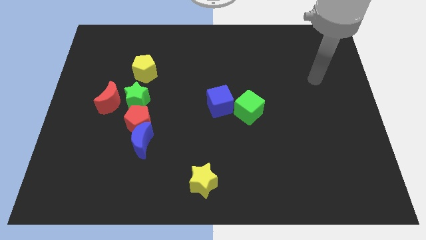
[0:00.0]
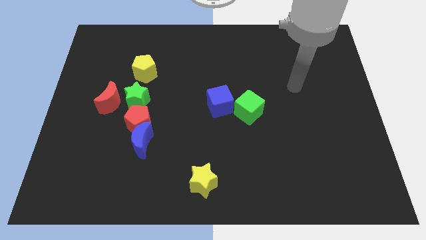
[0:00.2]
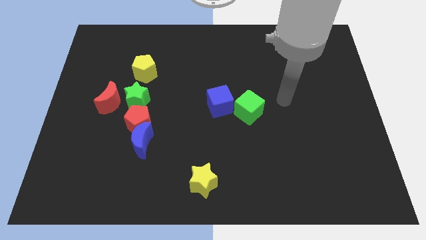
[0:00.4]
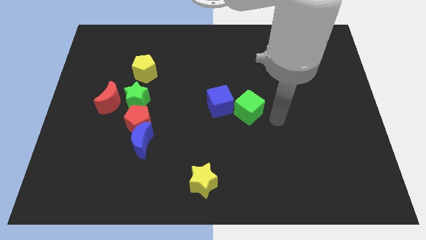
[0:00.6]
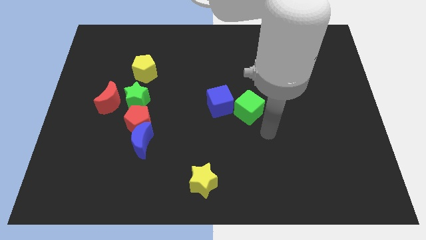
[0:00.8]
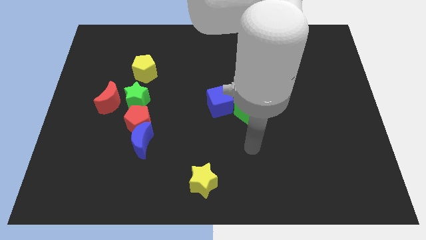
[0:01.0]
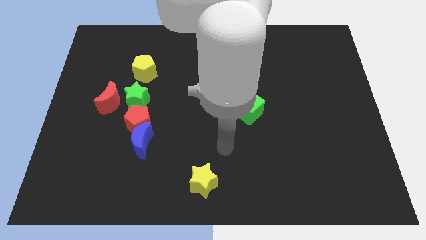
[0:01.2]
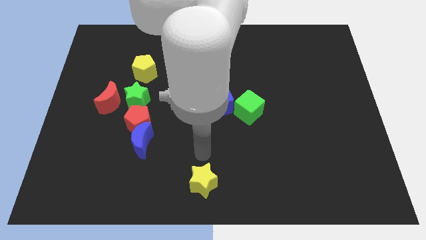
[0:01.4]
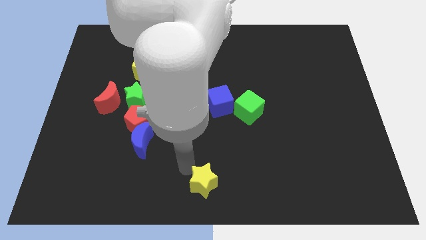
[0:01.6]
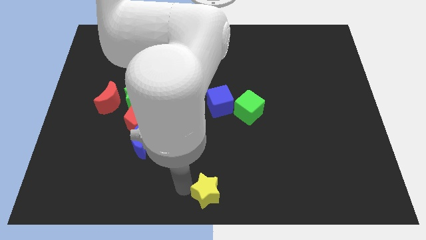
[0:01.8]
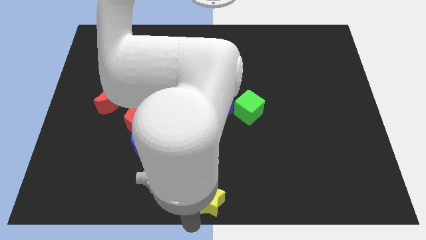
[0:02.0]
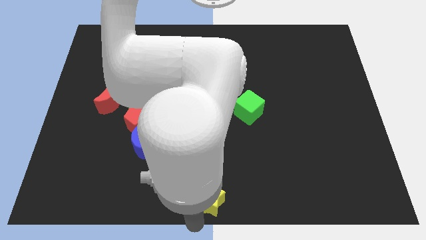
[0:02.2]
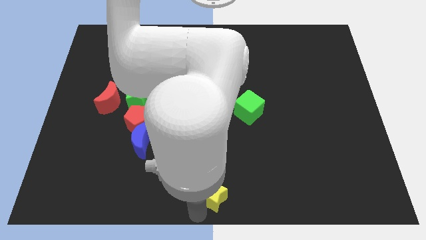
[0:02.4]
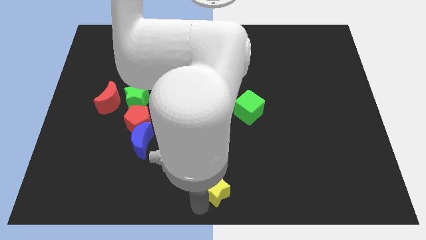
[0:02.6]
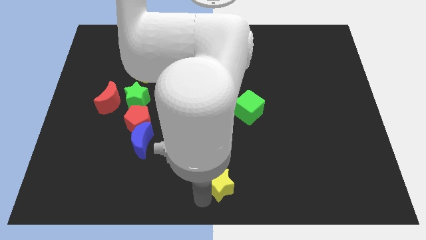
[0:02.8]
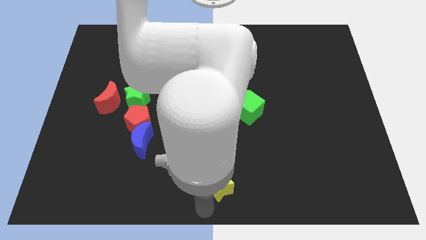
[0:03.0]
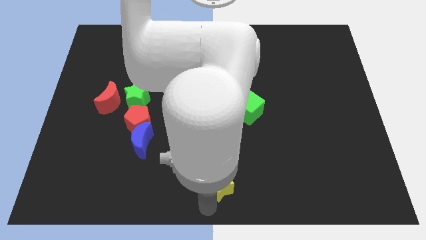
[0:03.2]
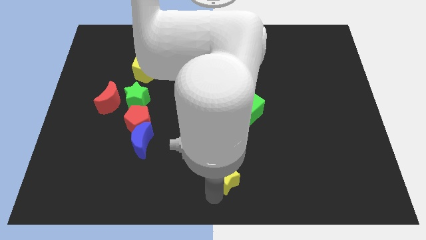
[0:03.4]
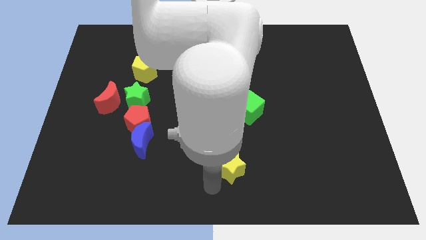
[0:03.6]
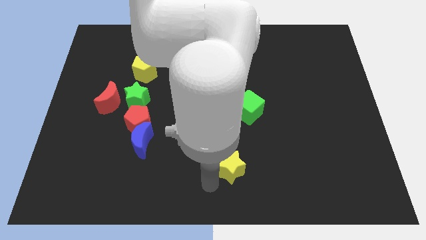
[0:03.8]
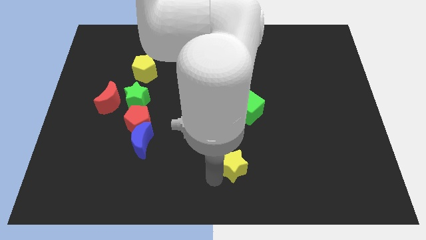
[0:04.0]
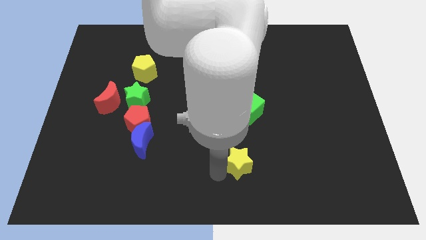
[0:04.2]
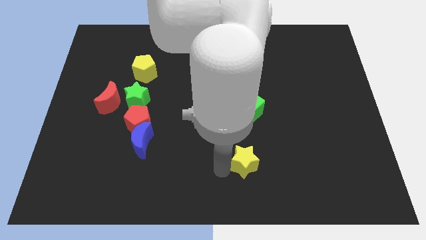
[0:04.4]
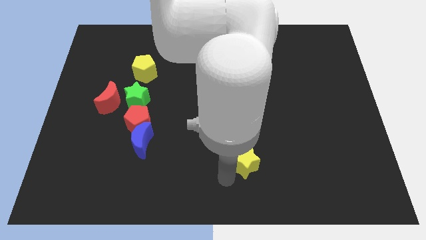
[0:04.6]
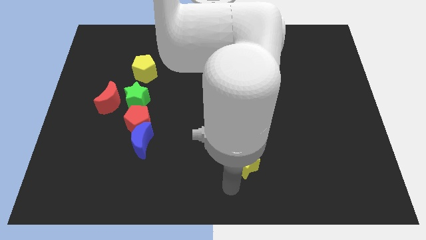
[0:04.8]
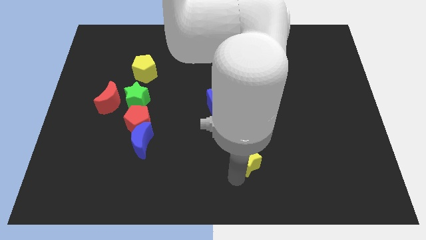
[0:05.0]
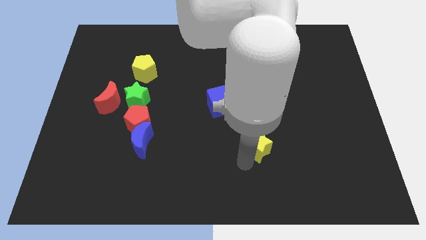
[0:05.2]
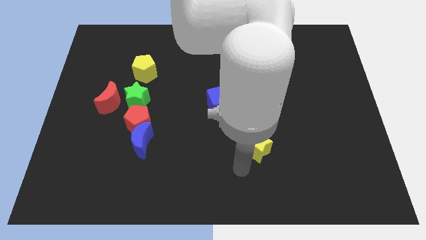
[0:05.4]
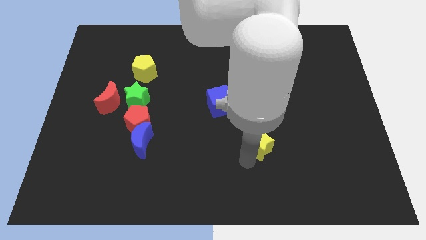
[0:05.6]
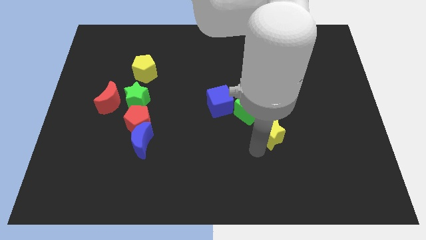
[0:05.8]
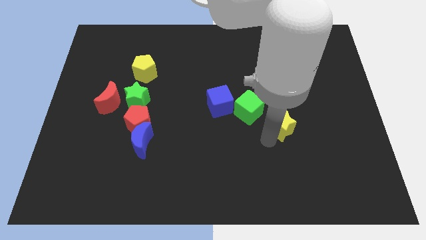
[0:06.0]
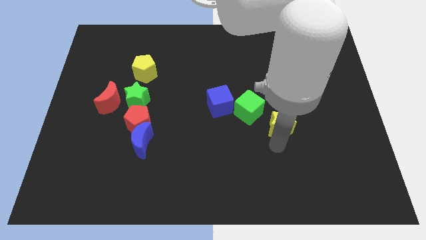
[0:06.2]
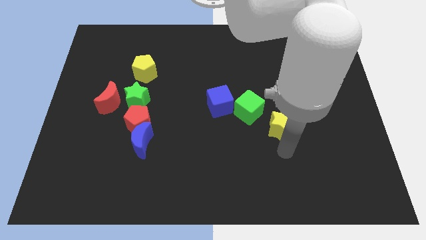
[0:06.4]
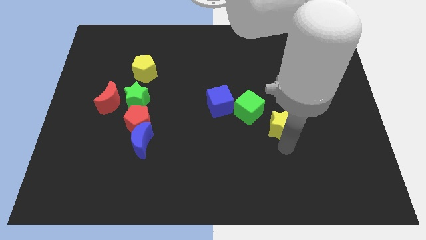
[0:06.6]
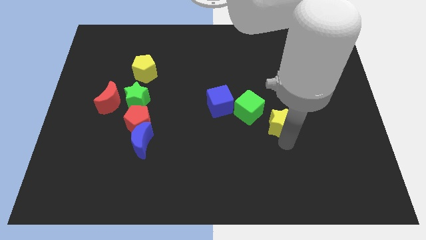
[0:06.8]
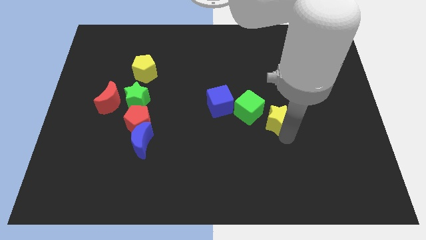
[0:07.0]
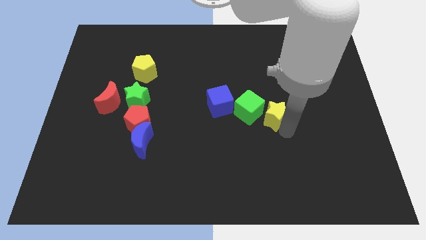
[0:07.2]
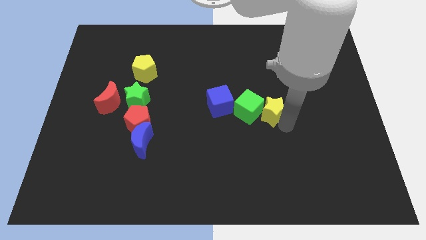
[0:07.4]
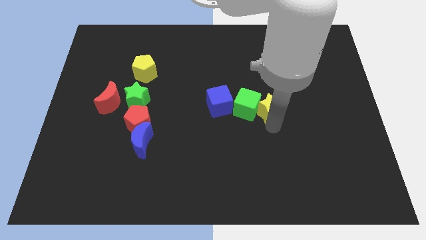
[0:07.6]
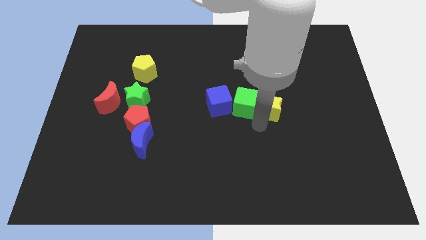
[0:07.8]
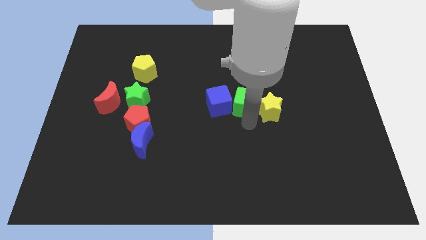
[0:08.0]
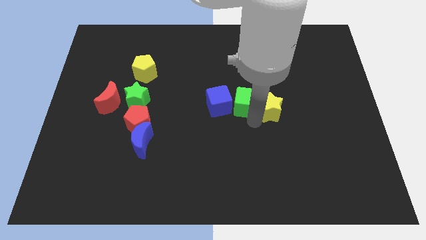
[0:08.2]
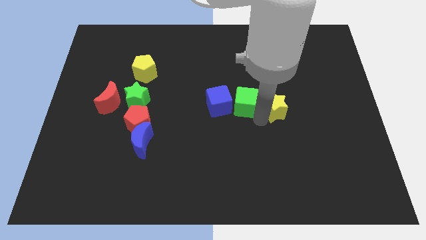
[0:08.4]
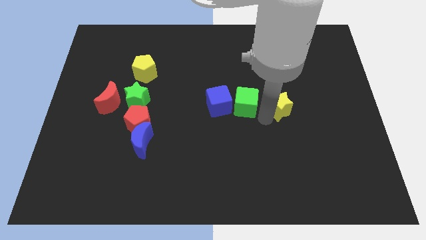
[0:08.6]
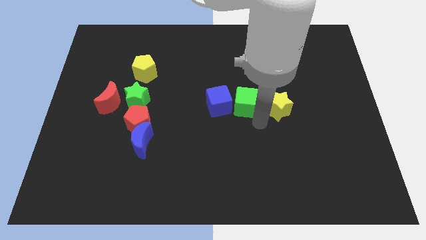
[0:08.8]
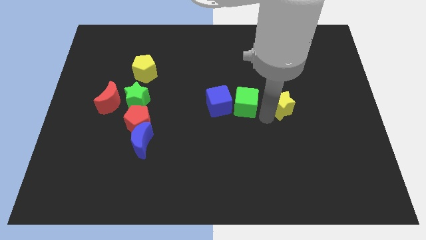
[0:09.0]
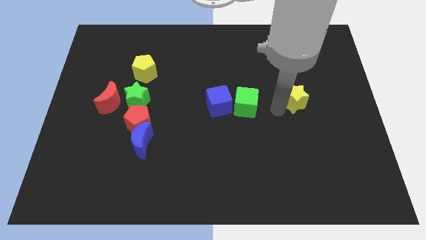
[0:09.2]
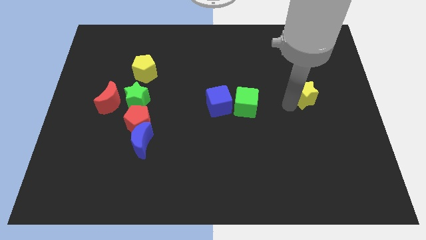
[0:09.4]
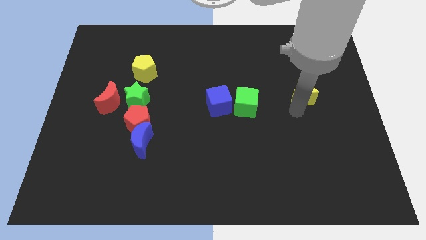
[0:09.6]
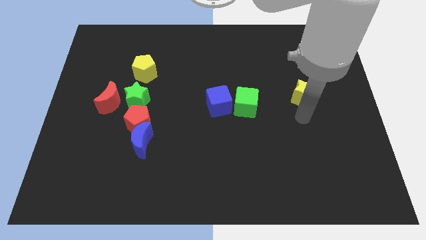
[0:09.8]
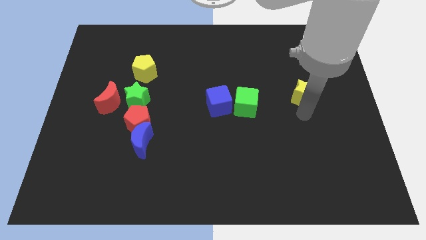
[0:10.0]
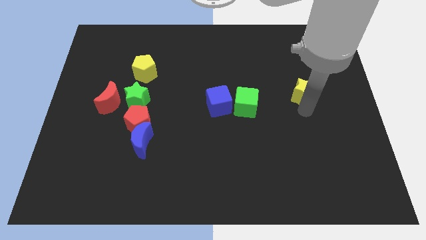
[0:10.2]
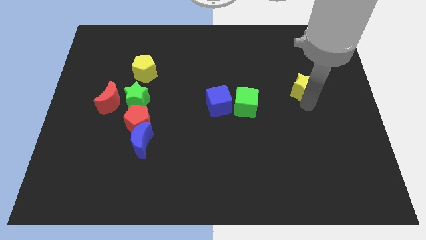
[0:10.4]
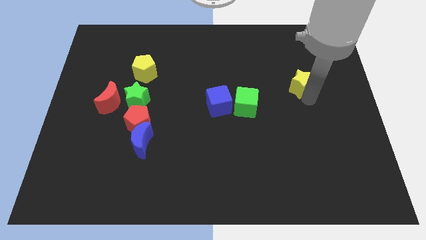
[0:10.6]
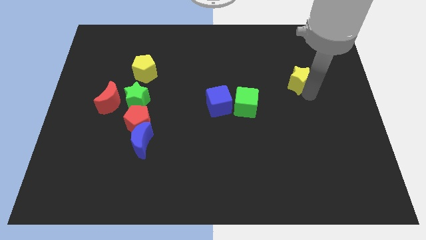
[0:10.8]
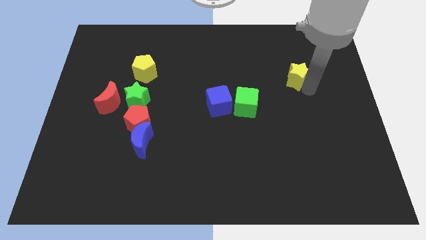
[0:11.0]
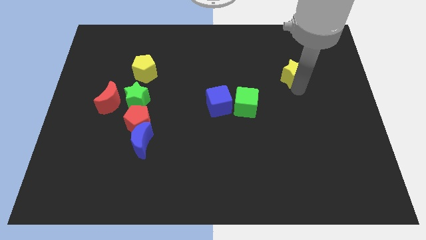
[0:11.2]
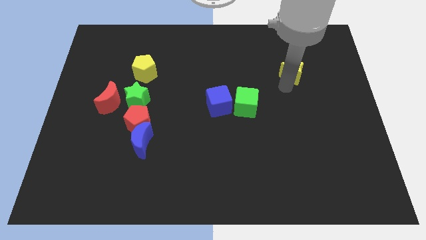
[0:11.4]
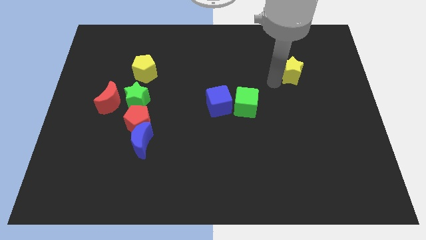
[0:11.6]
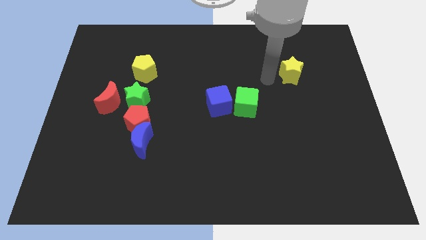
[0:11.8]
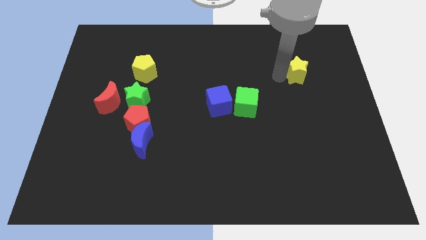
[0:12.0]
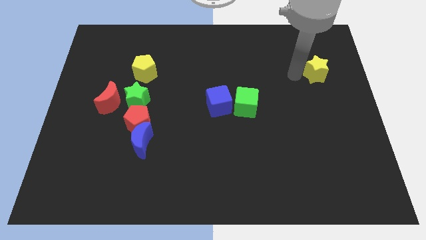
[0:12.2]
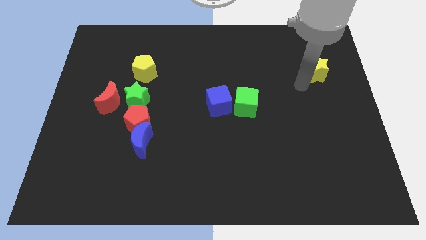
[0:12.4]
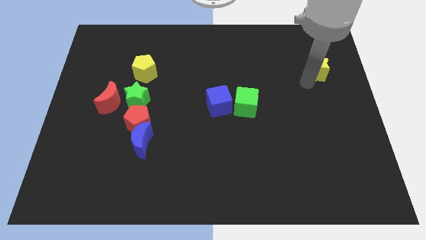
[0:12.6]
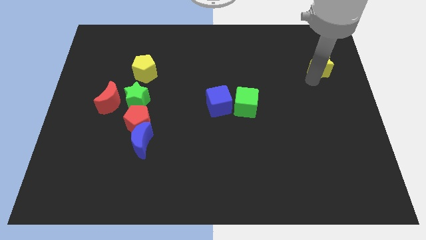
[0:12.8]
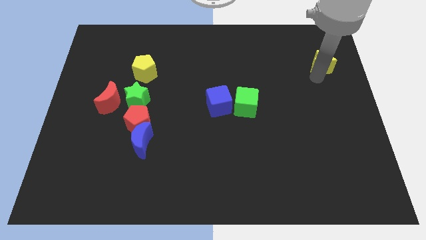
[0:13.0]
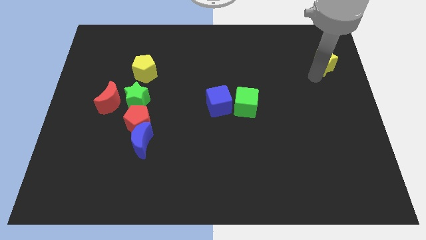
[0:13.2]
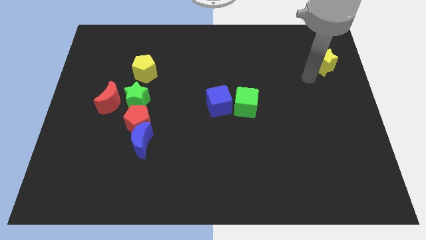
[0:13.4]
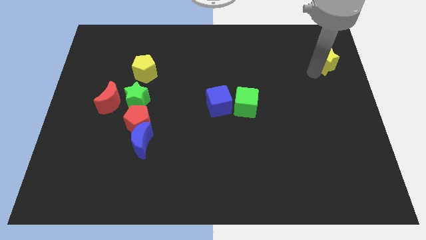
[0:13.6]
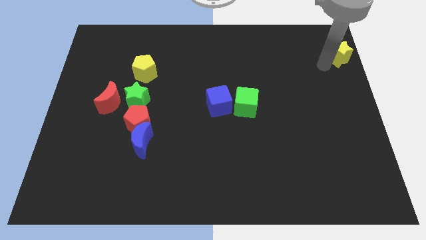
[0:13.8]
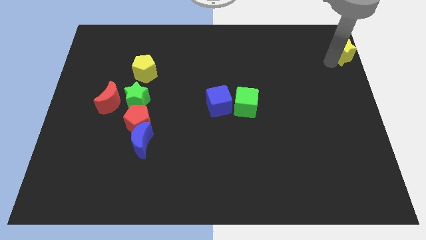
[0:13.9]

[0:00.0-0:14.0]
slide the yellow star to the top right of the board
